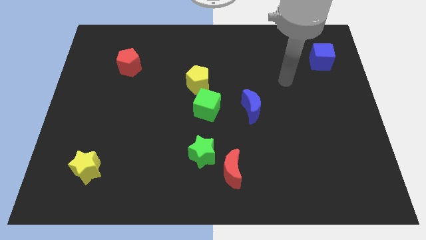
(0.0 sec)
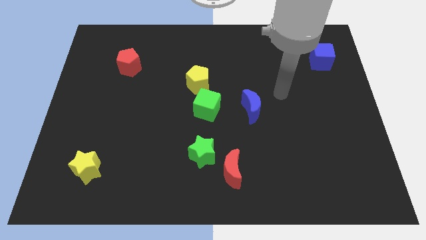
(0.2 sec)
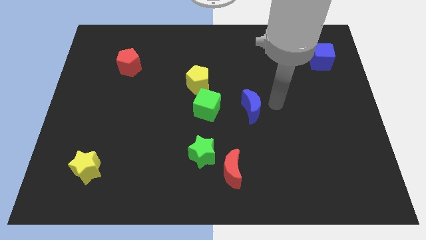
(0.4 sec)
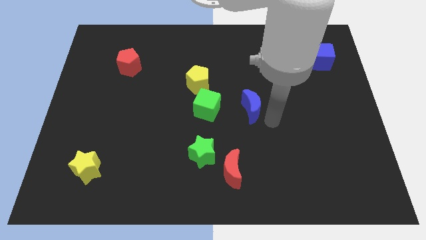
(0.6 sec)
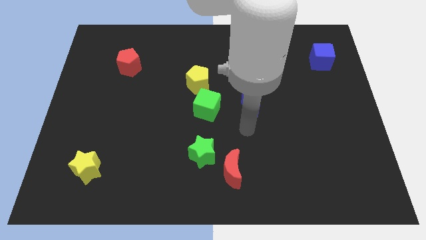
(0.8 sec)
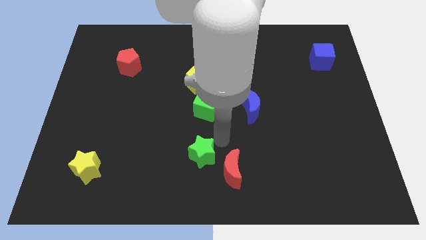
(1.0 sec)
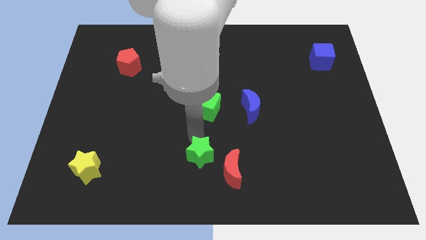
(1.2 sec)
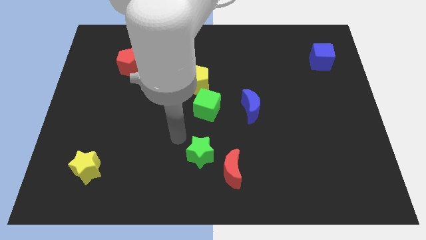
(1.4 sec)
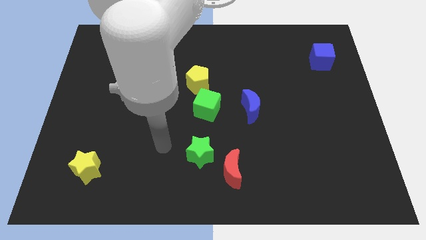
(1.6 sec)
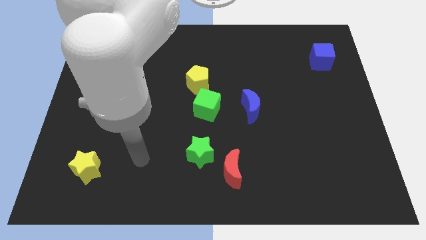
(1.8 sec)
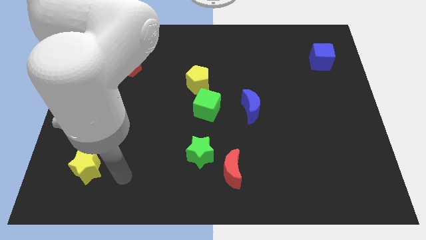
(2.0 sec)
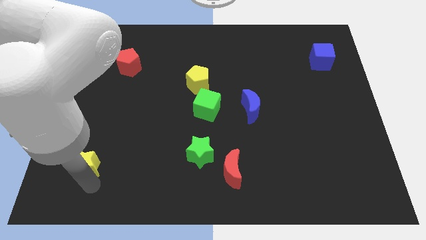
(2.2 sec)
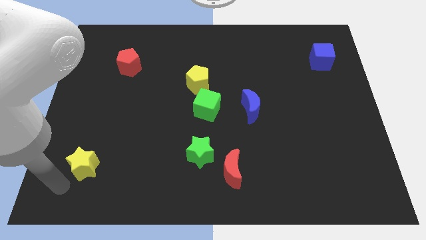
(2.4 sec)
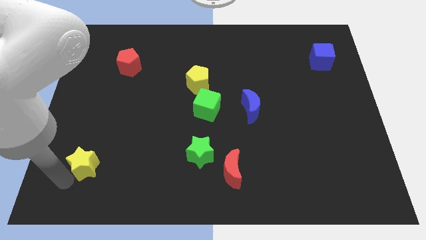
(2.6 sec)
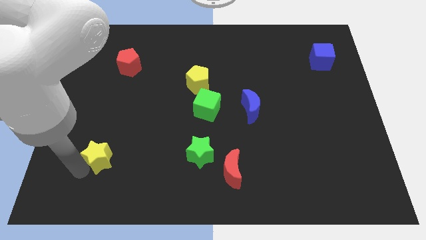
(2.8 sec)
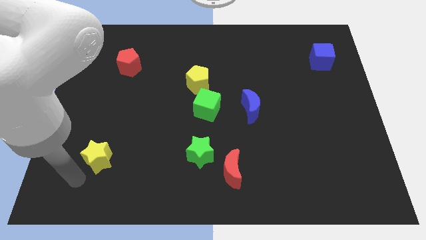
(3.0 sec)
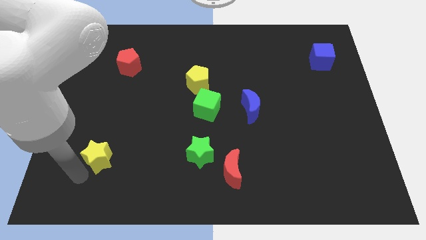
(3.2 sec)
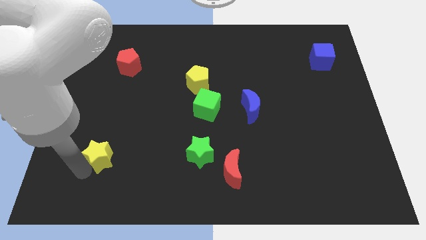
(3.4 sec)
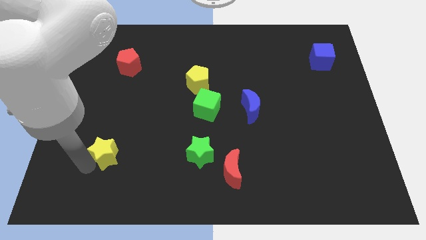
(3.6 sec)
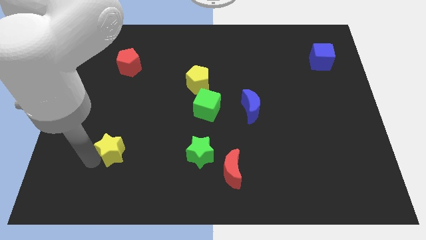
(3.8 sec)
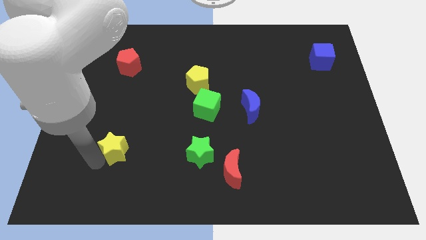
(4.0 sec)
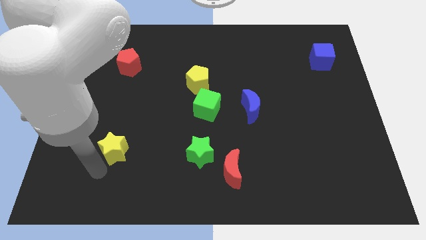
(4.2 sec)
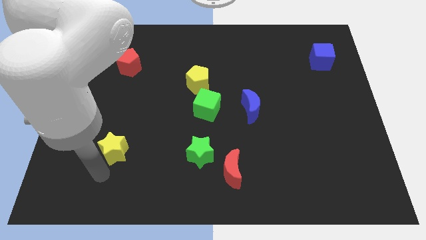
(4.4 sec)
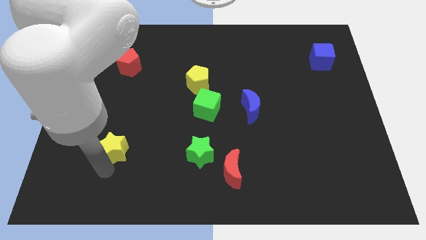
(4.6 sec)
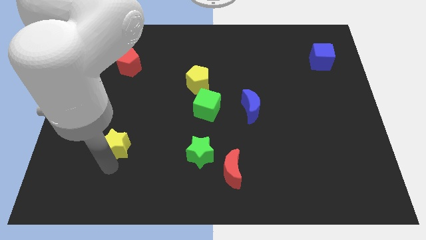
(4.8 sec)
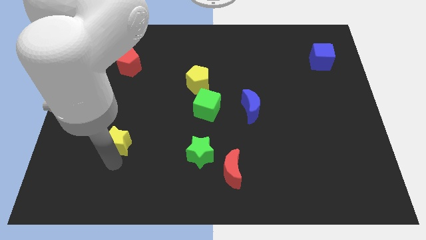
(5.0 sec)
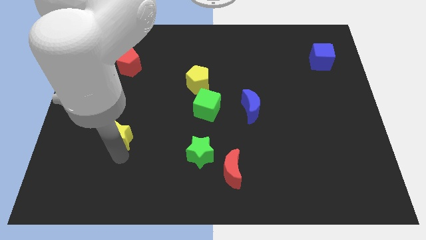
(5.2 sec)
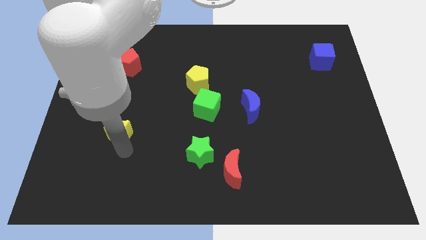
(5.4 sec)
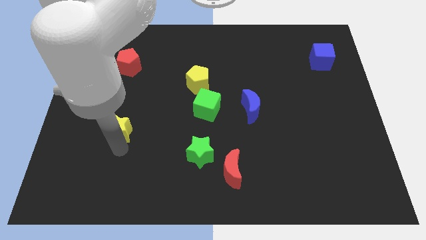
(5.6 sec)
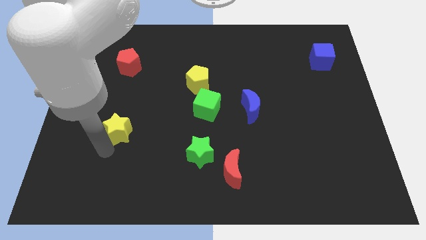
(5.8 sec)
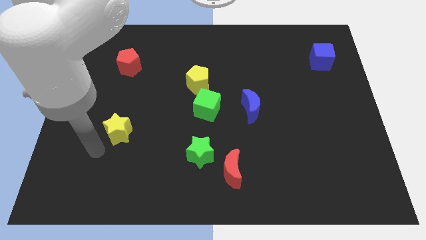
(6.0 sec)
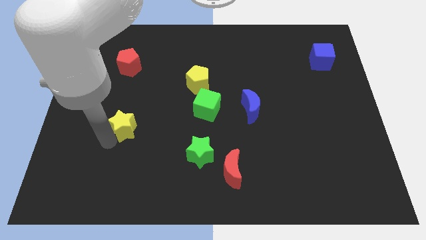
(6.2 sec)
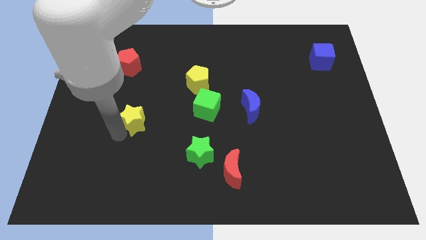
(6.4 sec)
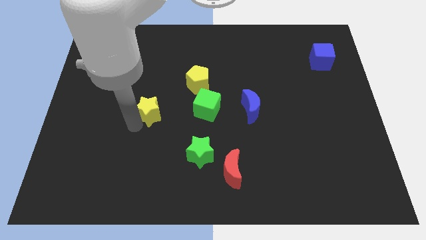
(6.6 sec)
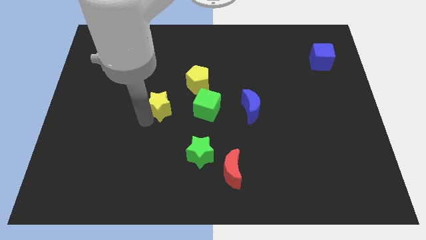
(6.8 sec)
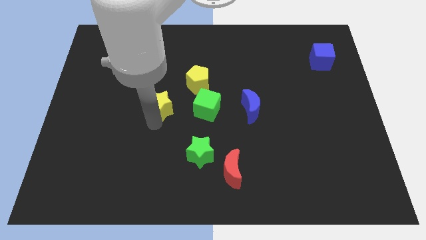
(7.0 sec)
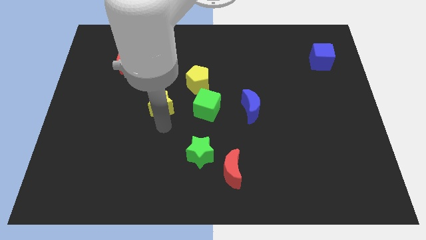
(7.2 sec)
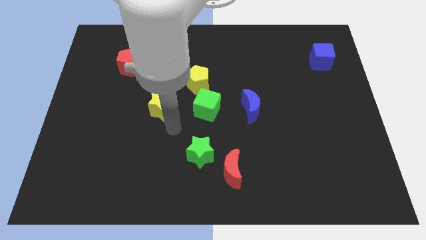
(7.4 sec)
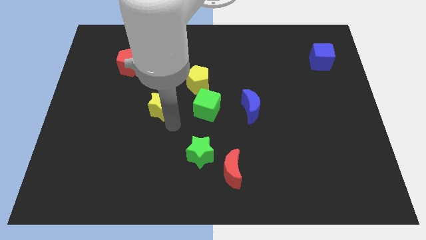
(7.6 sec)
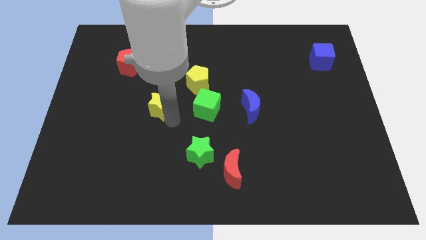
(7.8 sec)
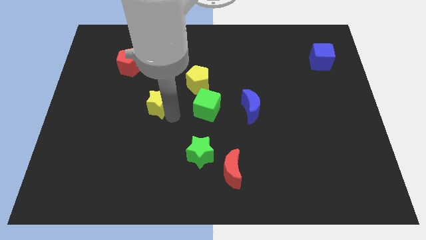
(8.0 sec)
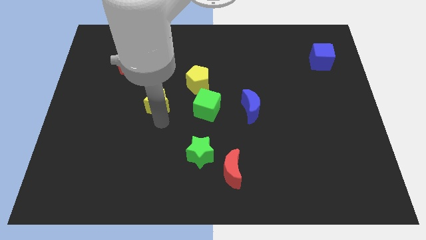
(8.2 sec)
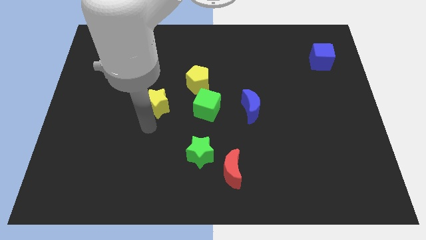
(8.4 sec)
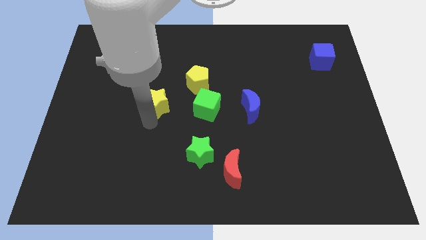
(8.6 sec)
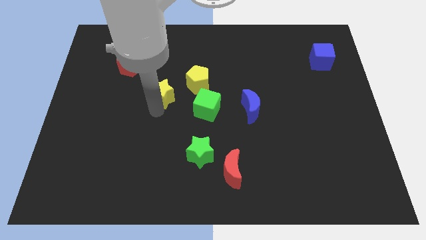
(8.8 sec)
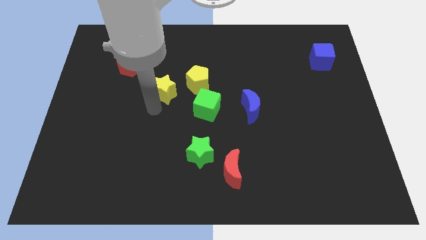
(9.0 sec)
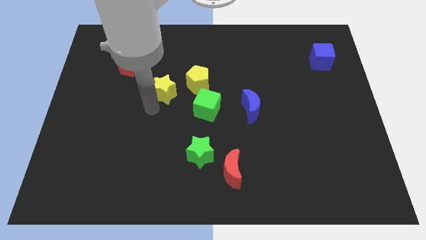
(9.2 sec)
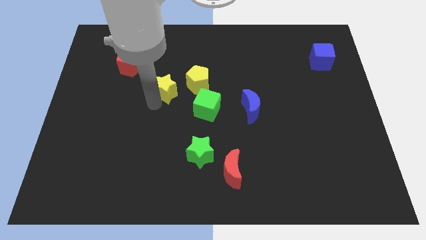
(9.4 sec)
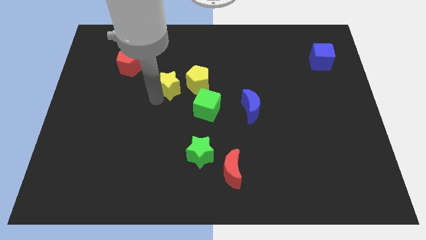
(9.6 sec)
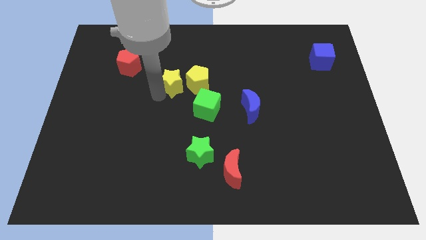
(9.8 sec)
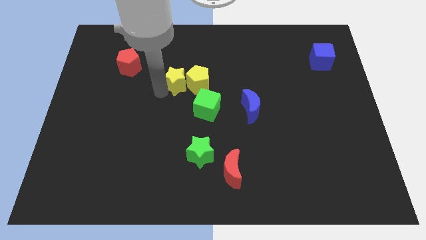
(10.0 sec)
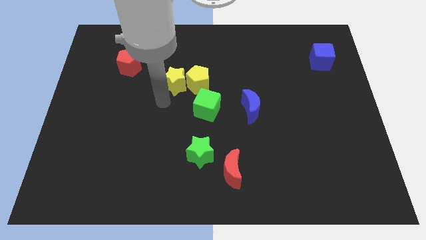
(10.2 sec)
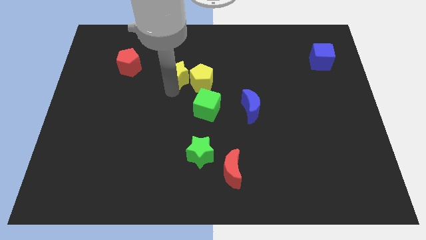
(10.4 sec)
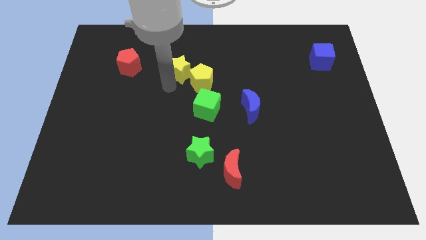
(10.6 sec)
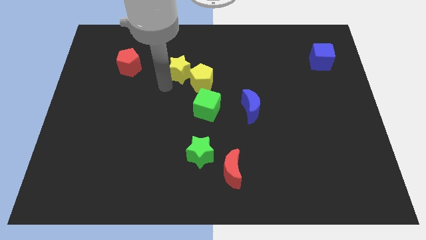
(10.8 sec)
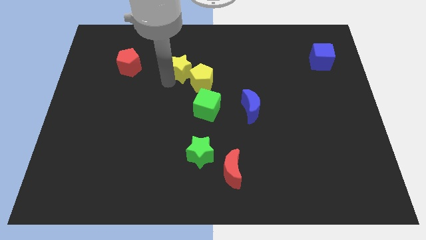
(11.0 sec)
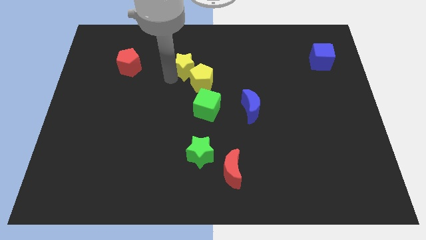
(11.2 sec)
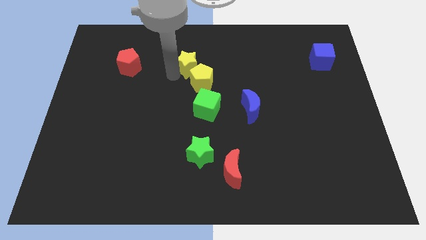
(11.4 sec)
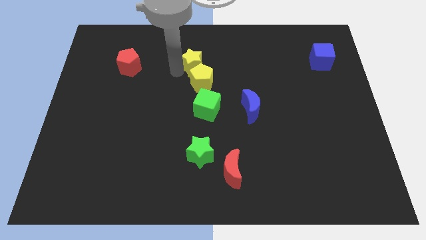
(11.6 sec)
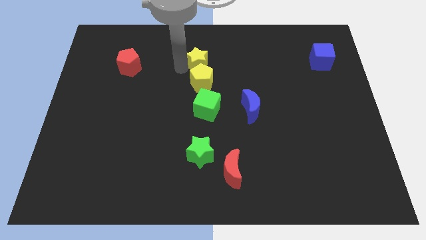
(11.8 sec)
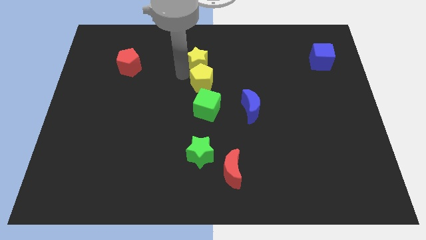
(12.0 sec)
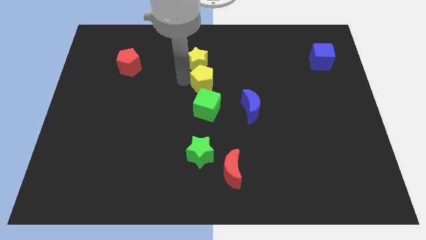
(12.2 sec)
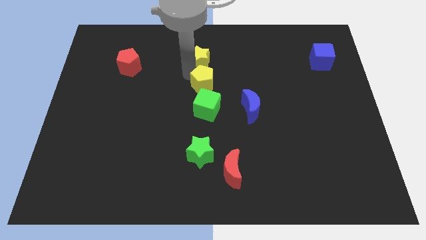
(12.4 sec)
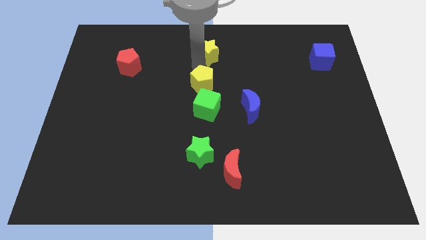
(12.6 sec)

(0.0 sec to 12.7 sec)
put the yellow star to the top side

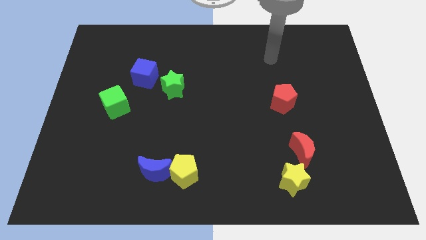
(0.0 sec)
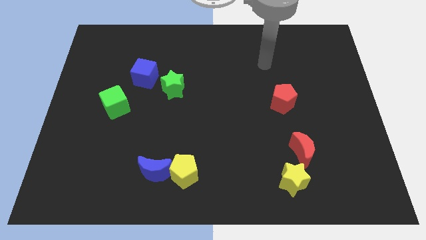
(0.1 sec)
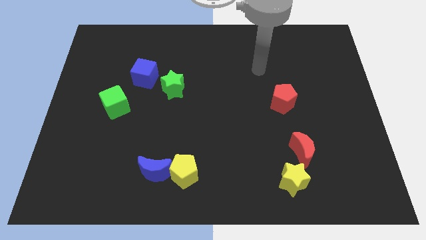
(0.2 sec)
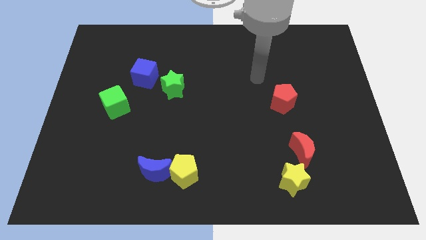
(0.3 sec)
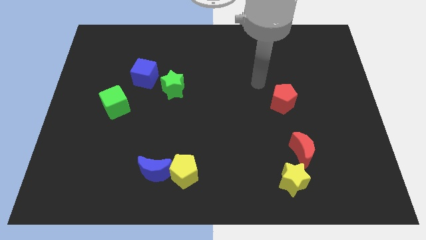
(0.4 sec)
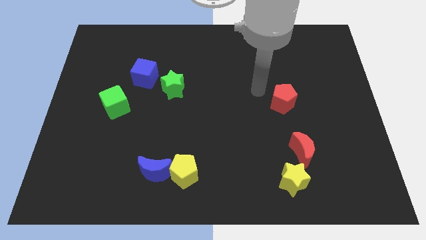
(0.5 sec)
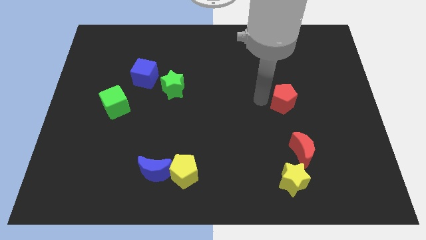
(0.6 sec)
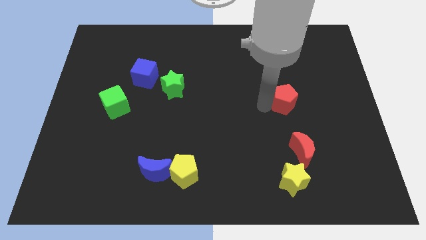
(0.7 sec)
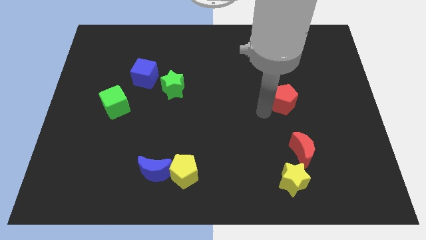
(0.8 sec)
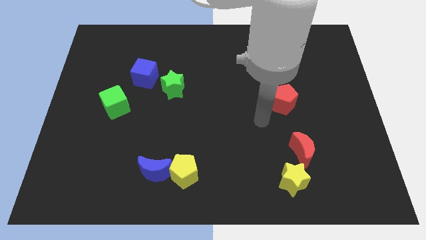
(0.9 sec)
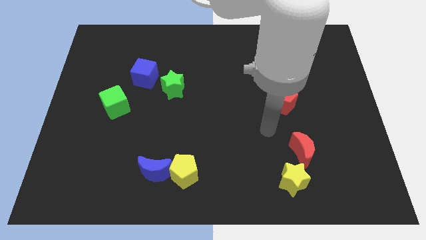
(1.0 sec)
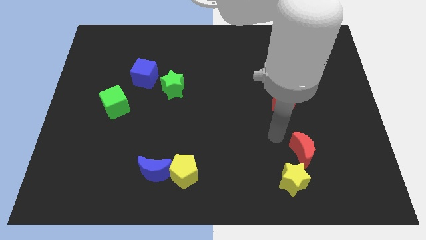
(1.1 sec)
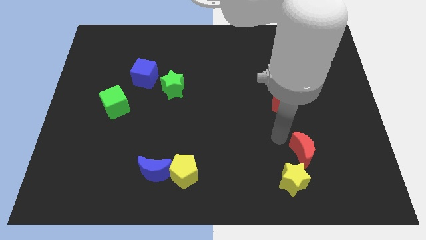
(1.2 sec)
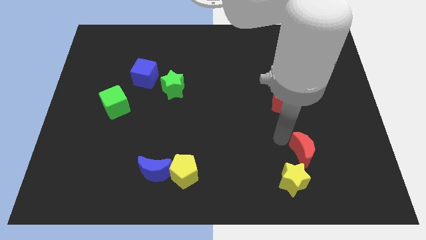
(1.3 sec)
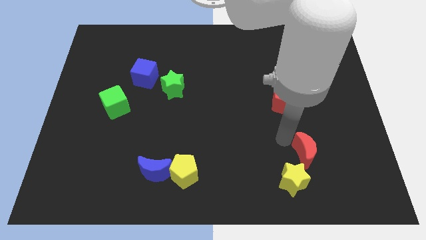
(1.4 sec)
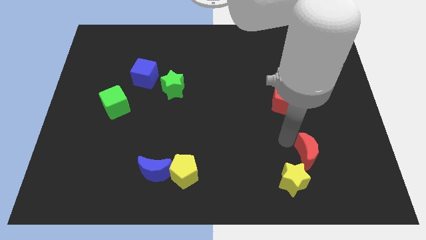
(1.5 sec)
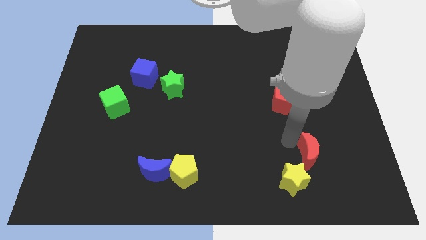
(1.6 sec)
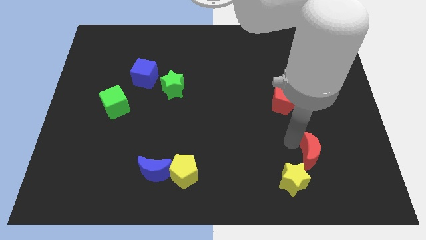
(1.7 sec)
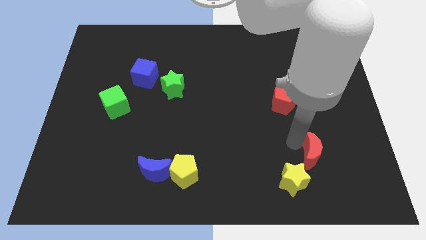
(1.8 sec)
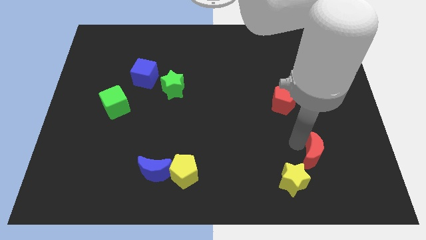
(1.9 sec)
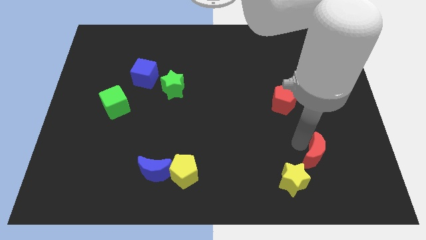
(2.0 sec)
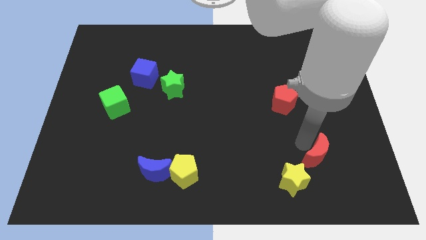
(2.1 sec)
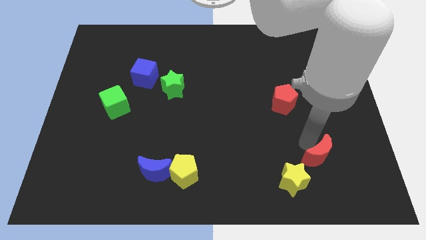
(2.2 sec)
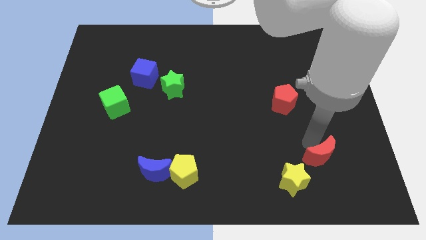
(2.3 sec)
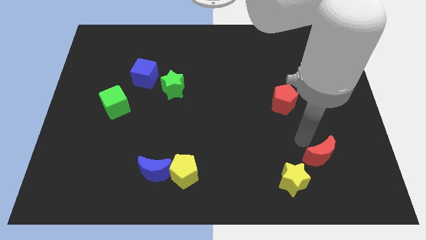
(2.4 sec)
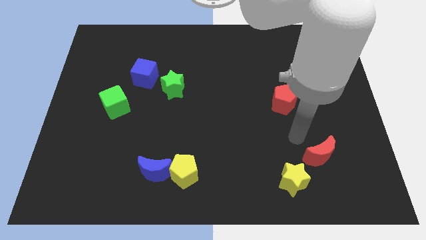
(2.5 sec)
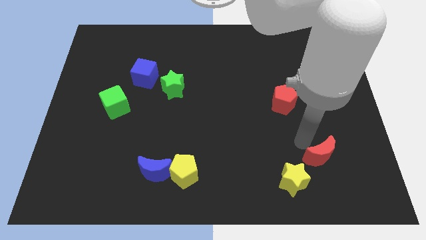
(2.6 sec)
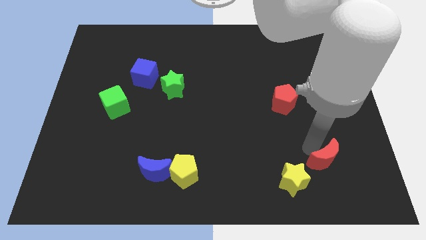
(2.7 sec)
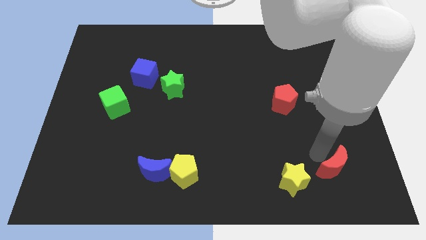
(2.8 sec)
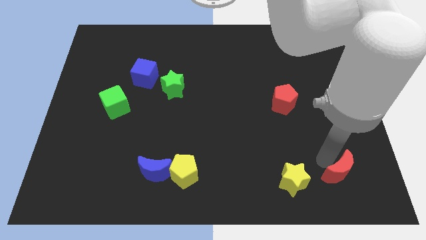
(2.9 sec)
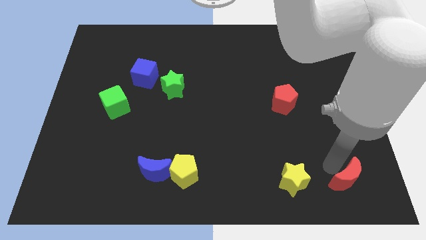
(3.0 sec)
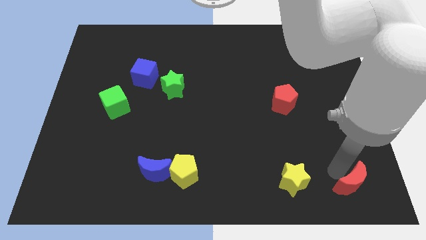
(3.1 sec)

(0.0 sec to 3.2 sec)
put the red moon to the bottom right
